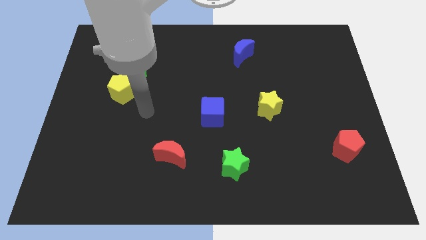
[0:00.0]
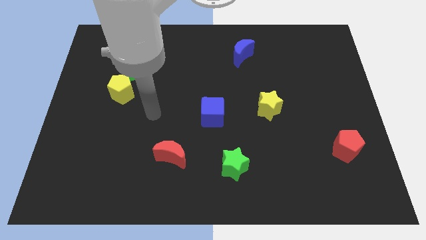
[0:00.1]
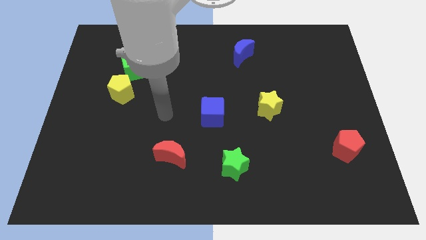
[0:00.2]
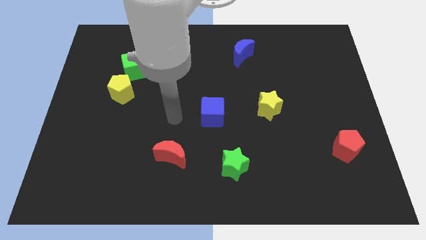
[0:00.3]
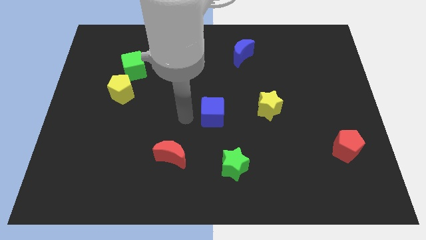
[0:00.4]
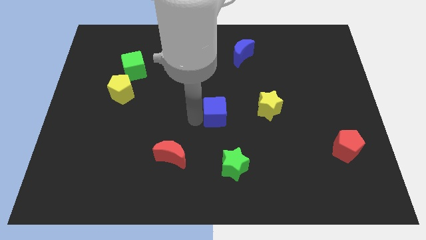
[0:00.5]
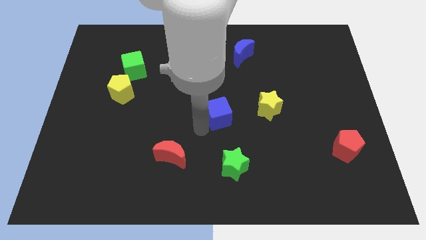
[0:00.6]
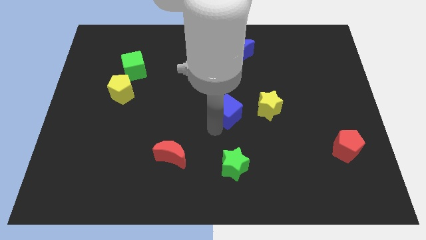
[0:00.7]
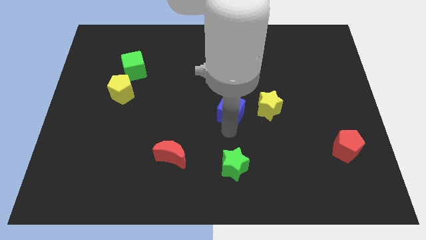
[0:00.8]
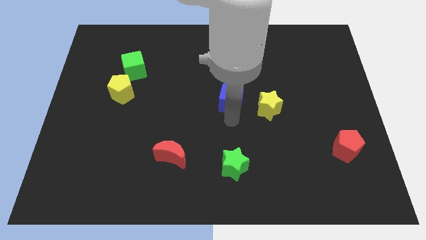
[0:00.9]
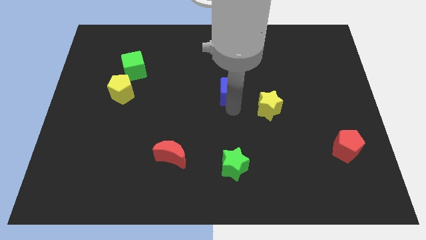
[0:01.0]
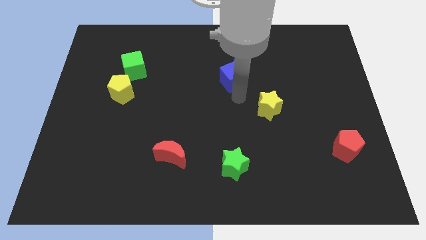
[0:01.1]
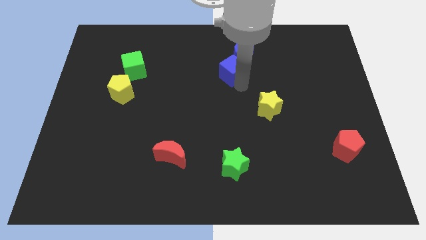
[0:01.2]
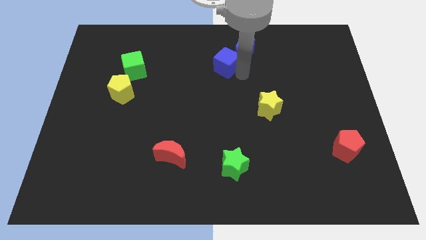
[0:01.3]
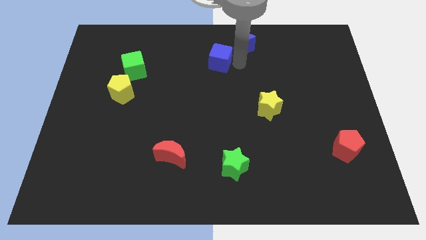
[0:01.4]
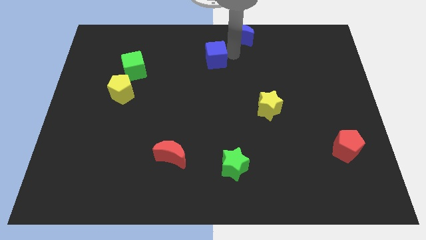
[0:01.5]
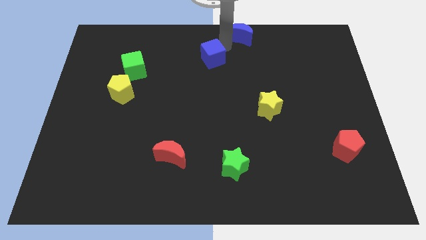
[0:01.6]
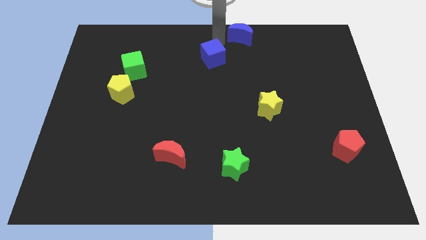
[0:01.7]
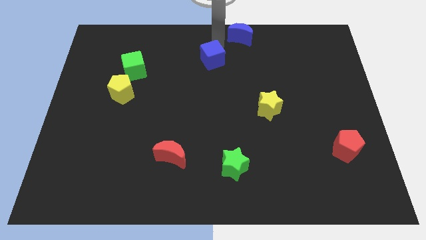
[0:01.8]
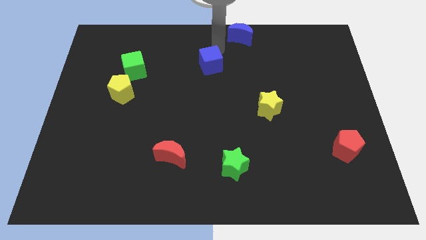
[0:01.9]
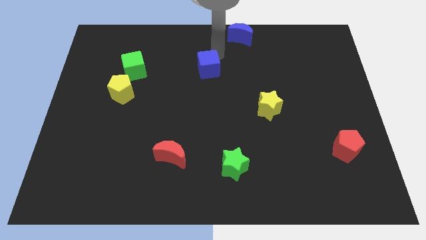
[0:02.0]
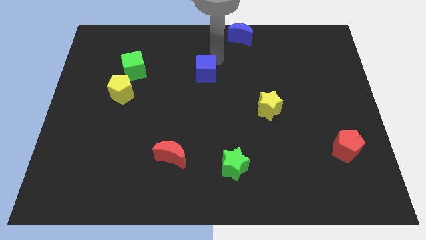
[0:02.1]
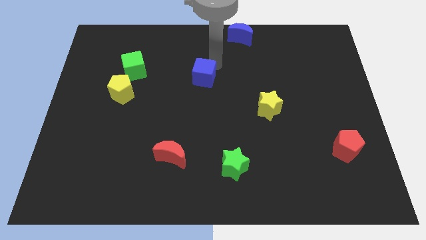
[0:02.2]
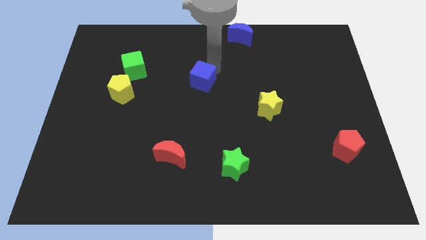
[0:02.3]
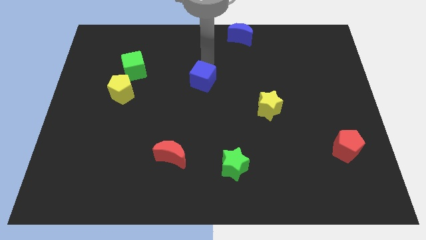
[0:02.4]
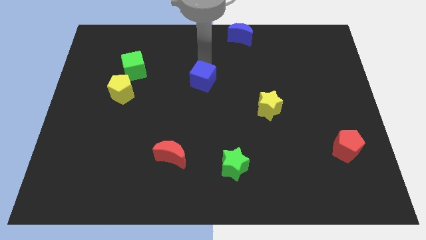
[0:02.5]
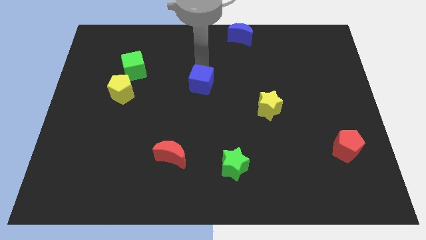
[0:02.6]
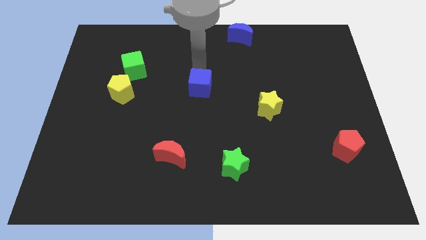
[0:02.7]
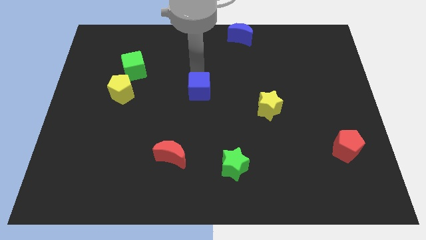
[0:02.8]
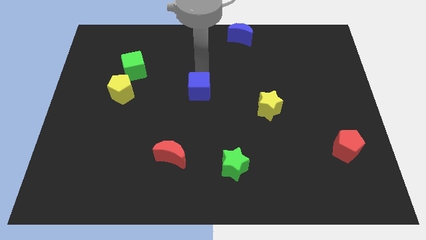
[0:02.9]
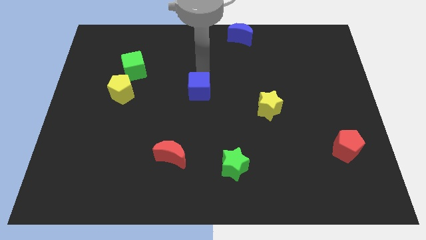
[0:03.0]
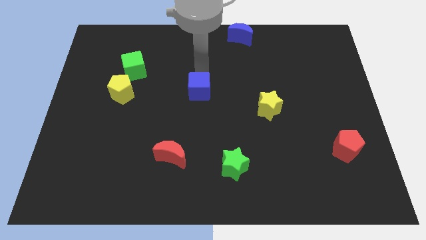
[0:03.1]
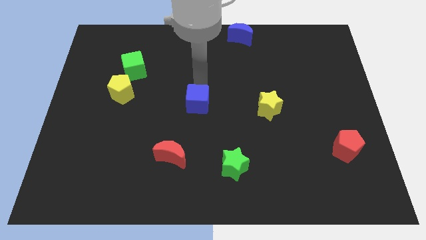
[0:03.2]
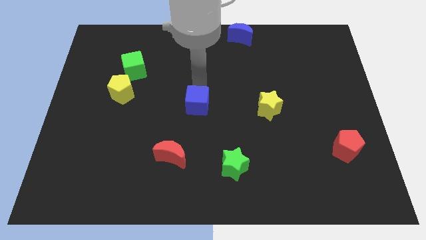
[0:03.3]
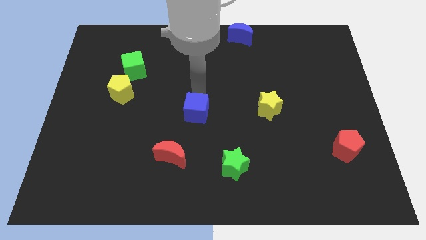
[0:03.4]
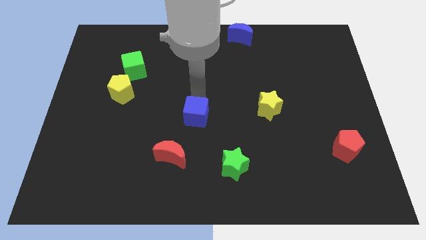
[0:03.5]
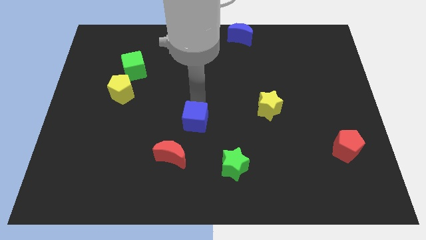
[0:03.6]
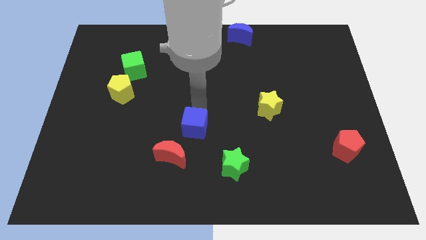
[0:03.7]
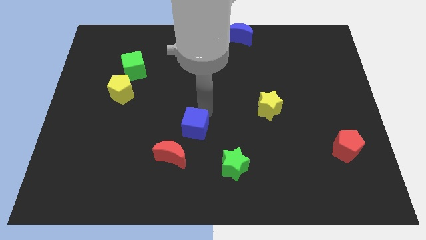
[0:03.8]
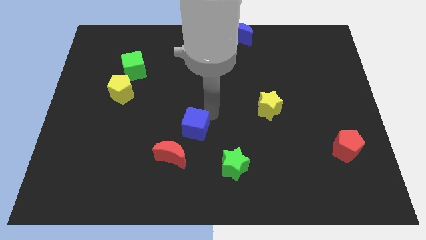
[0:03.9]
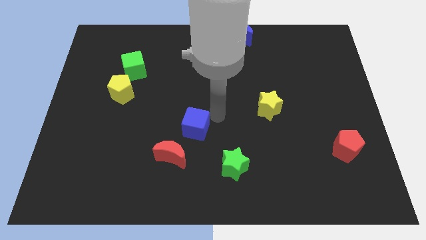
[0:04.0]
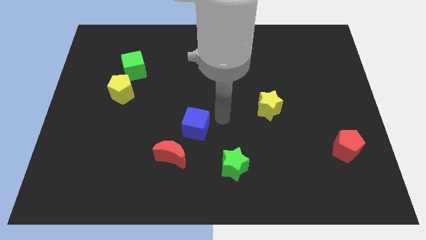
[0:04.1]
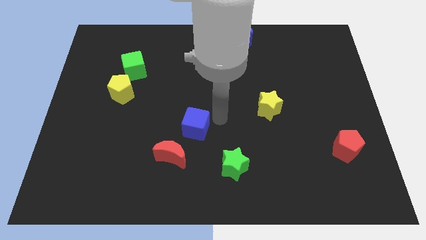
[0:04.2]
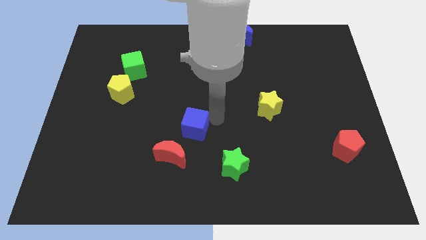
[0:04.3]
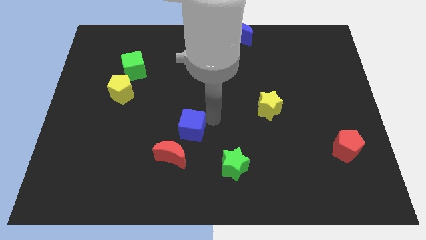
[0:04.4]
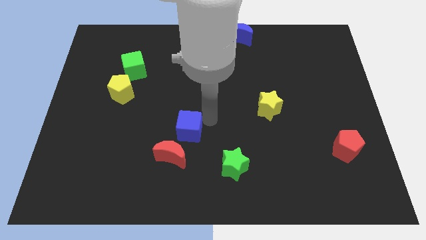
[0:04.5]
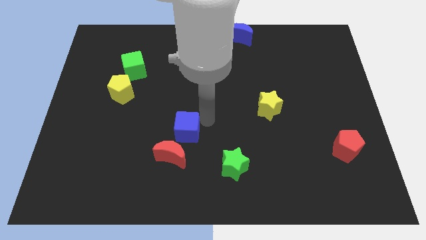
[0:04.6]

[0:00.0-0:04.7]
move the blue cube diagonally downwards and to the left a bit

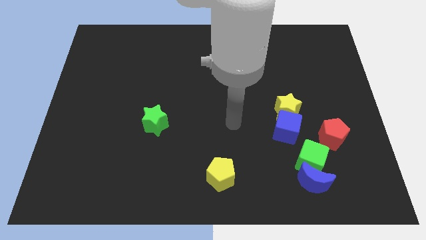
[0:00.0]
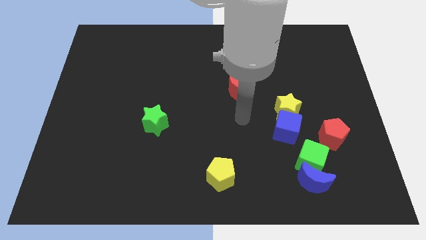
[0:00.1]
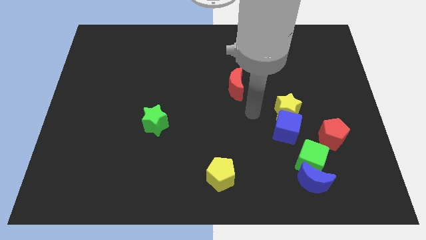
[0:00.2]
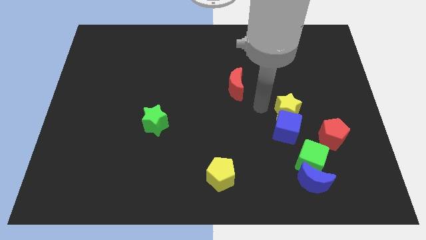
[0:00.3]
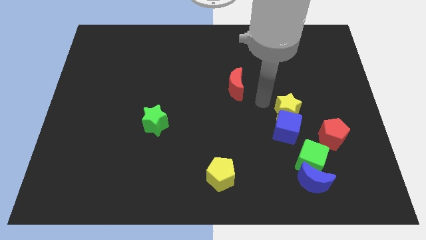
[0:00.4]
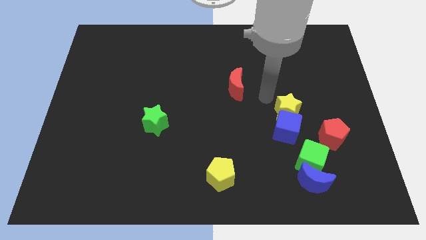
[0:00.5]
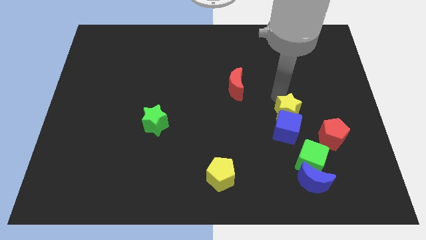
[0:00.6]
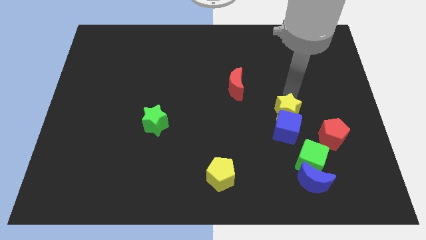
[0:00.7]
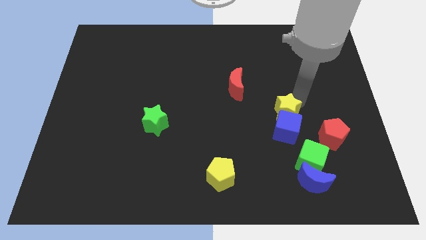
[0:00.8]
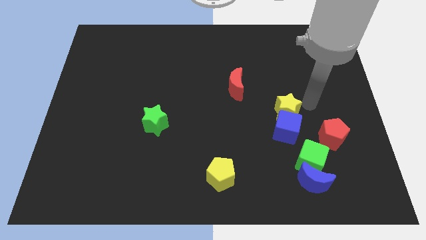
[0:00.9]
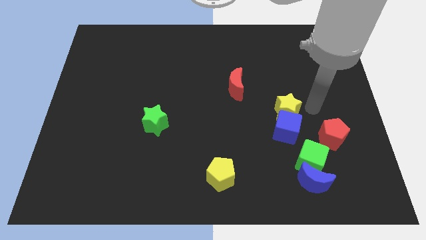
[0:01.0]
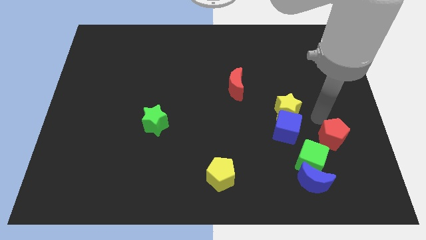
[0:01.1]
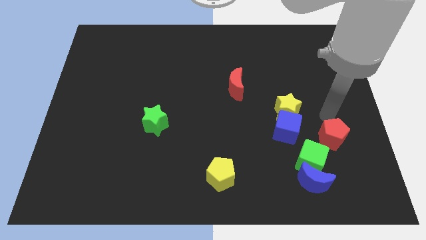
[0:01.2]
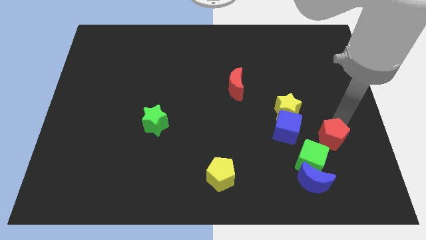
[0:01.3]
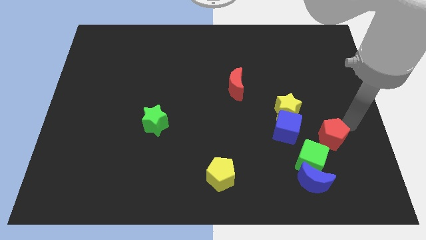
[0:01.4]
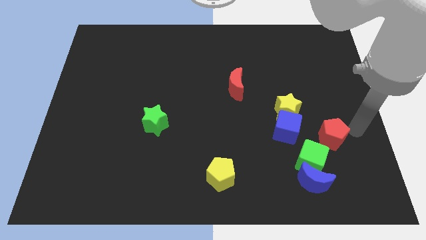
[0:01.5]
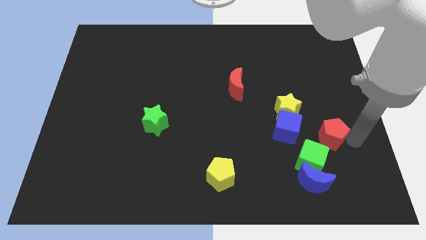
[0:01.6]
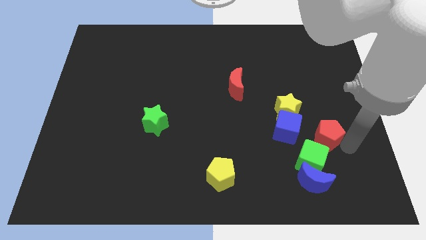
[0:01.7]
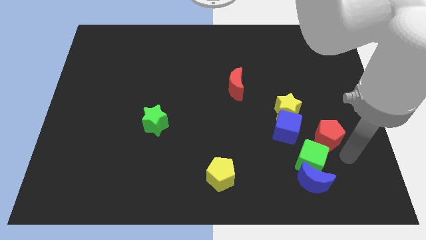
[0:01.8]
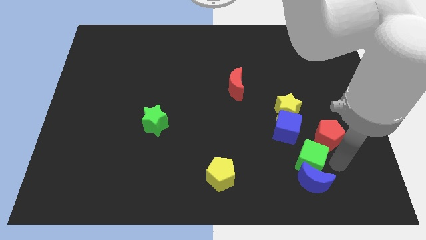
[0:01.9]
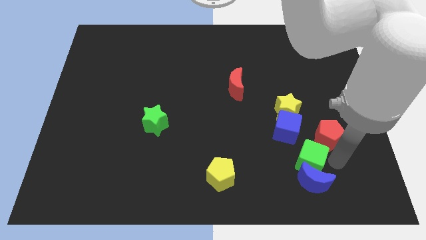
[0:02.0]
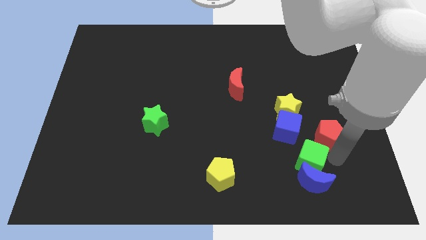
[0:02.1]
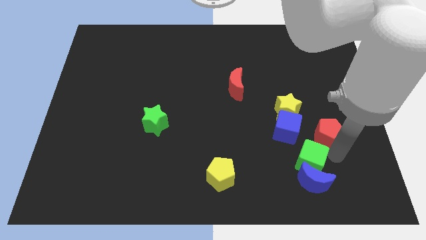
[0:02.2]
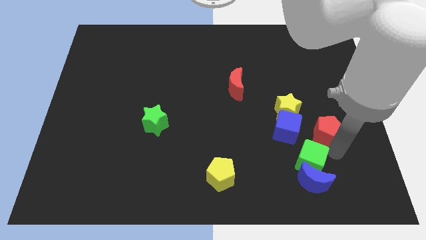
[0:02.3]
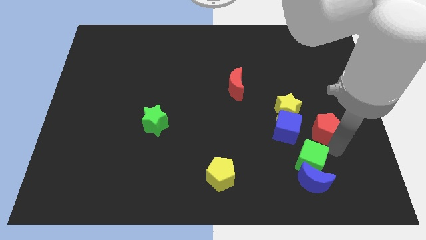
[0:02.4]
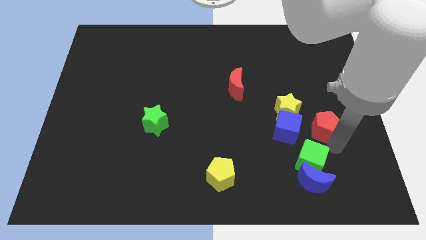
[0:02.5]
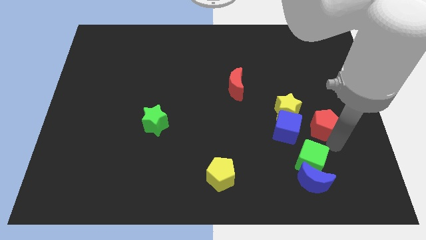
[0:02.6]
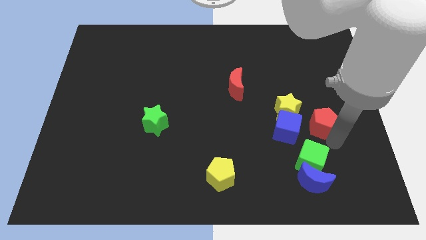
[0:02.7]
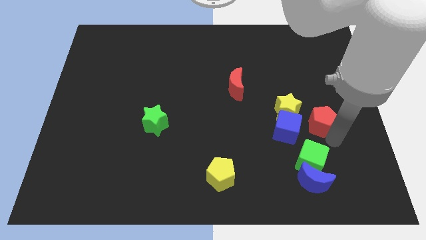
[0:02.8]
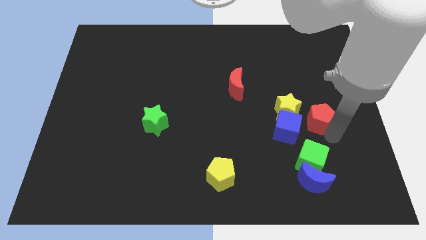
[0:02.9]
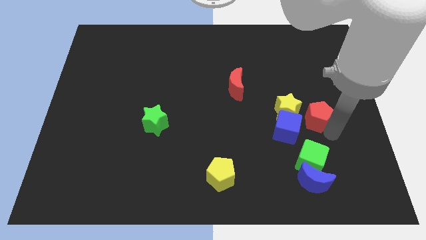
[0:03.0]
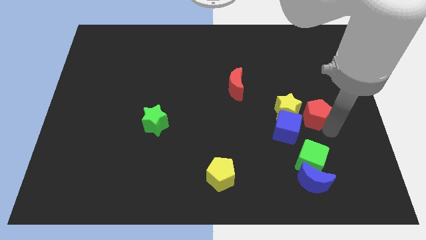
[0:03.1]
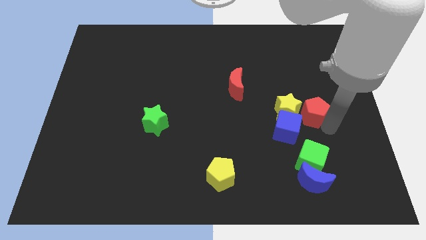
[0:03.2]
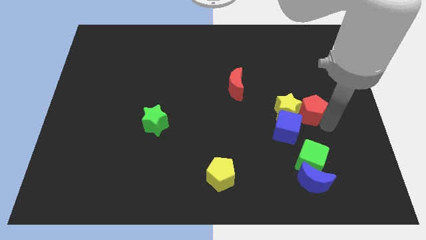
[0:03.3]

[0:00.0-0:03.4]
slightly push the red pentagon upwards and left diagonally
